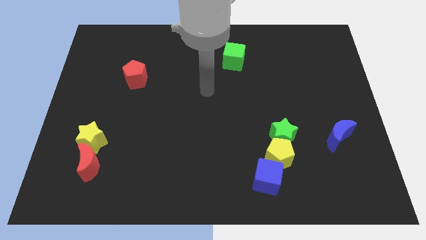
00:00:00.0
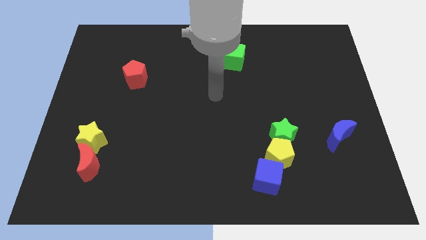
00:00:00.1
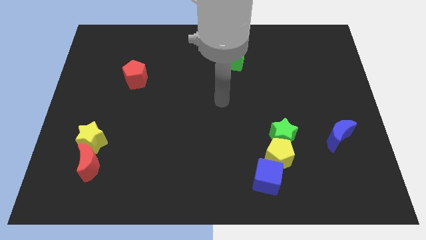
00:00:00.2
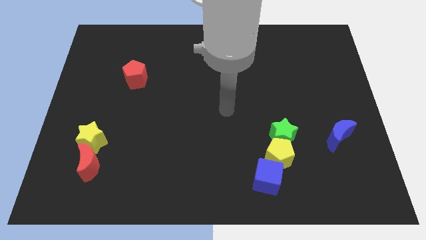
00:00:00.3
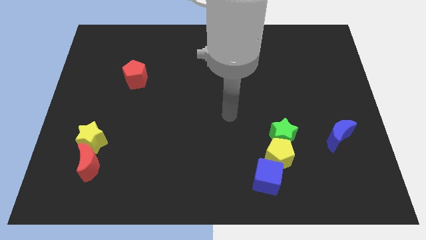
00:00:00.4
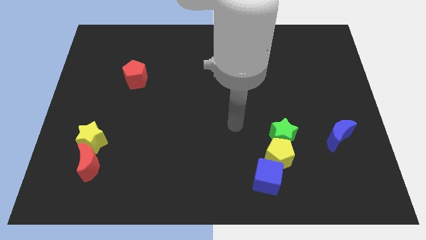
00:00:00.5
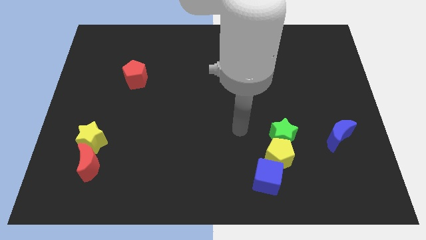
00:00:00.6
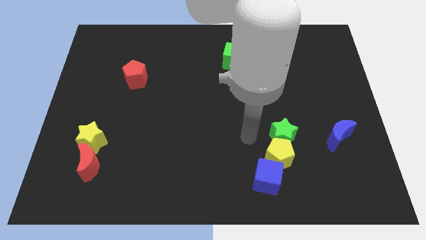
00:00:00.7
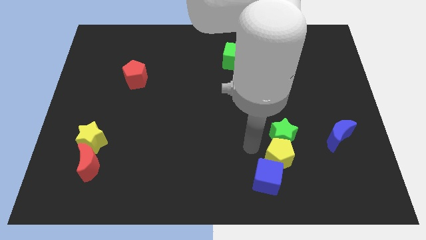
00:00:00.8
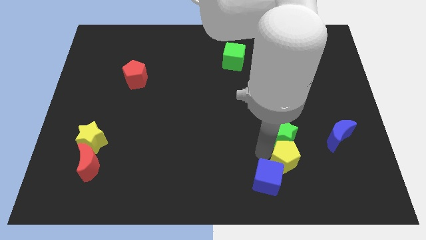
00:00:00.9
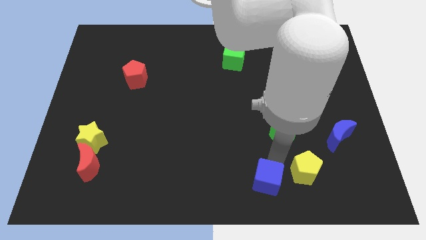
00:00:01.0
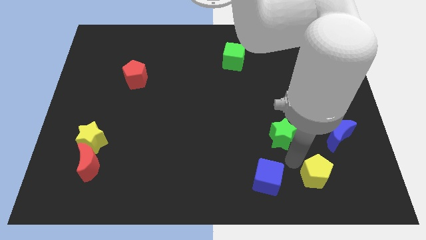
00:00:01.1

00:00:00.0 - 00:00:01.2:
move the green star away from the yellow pentagon

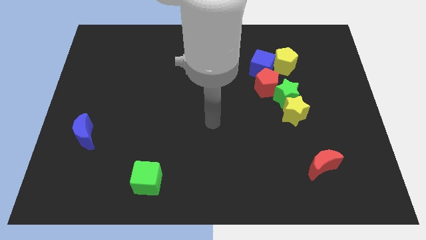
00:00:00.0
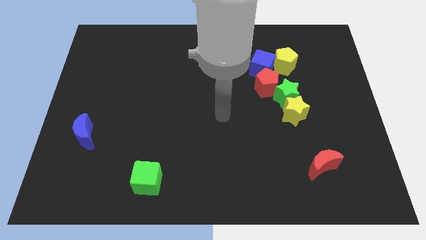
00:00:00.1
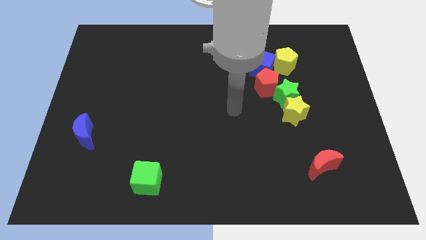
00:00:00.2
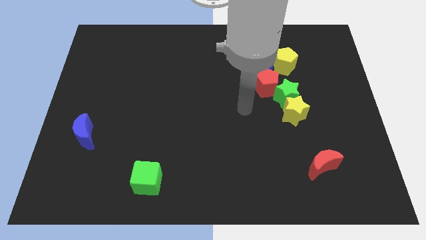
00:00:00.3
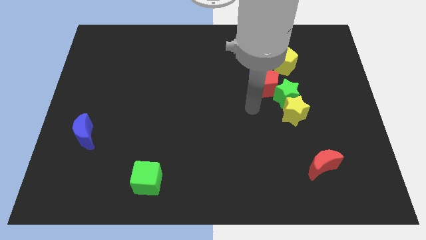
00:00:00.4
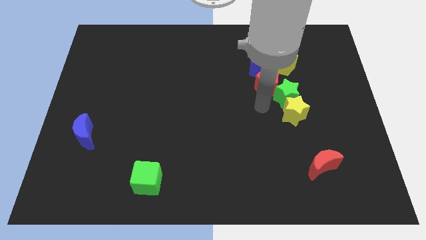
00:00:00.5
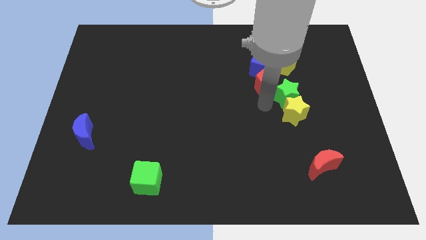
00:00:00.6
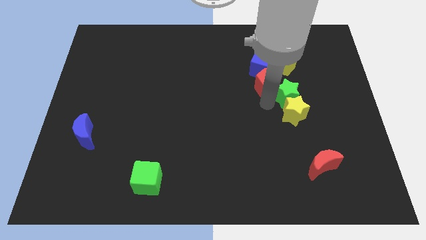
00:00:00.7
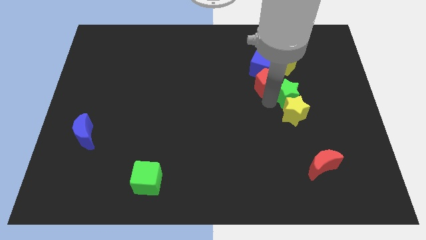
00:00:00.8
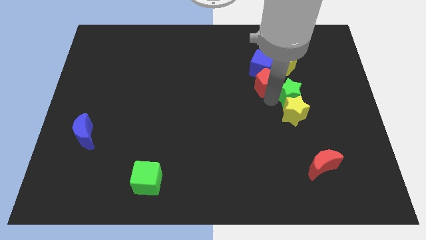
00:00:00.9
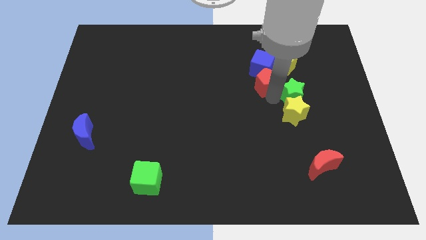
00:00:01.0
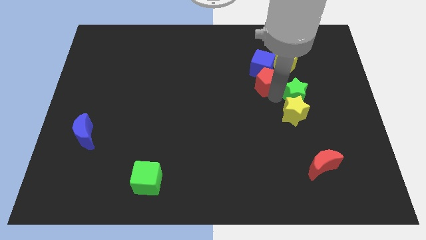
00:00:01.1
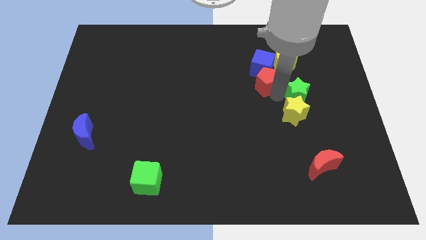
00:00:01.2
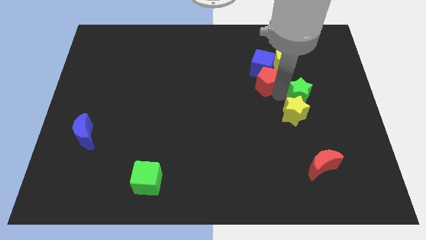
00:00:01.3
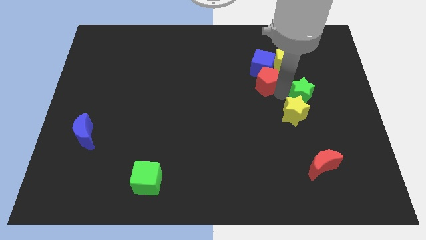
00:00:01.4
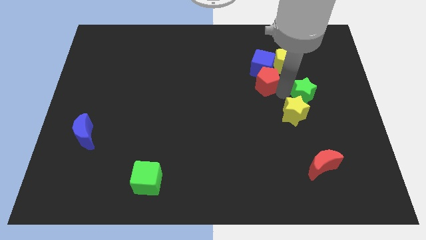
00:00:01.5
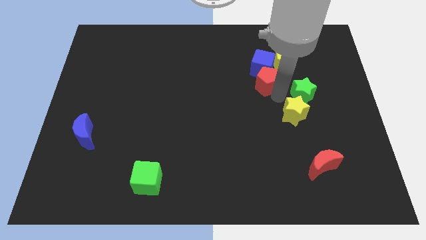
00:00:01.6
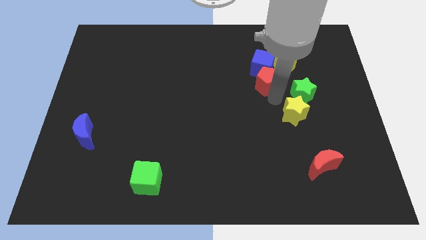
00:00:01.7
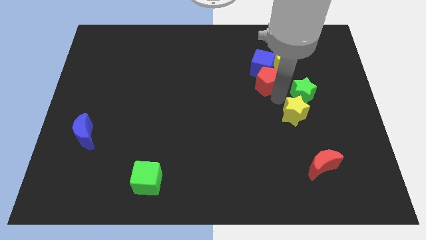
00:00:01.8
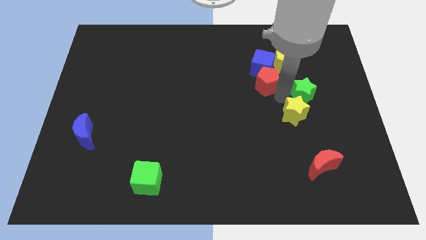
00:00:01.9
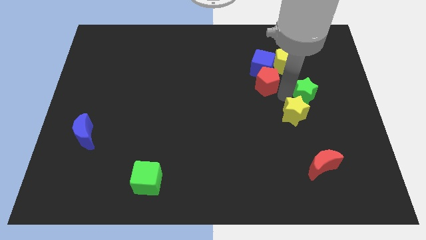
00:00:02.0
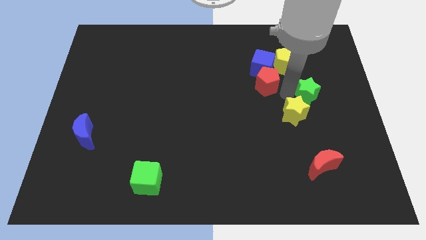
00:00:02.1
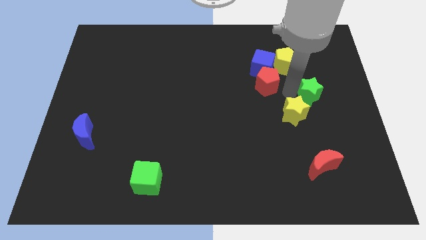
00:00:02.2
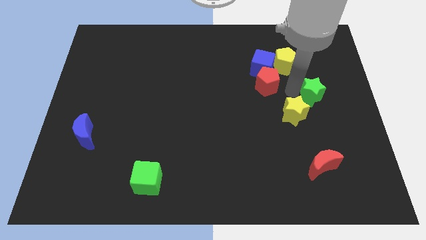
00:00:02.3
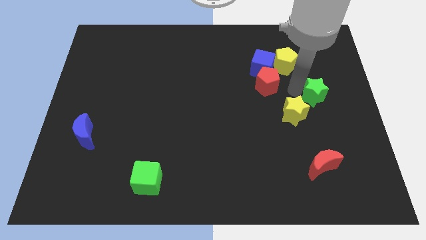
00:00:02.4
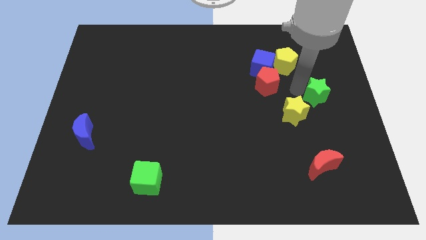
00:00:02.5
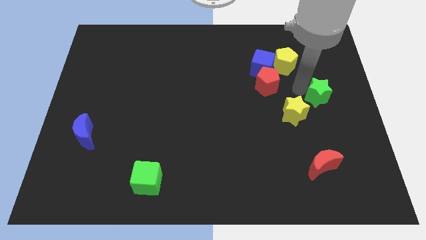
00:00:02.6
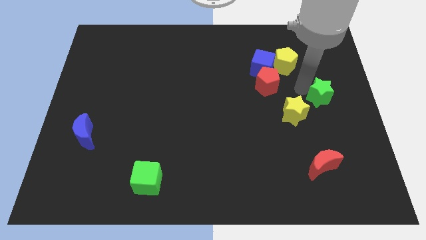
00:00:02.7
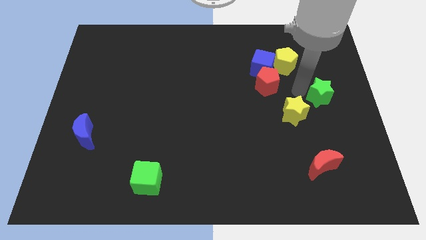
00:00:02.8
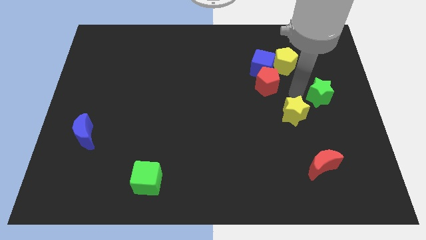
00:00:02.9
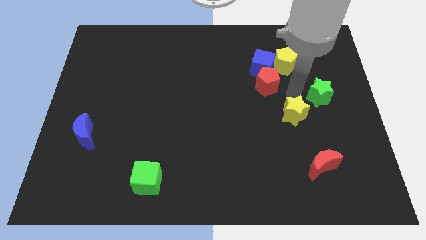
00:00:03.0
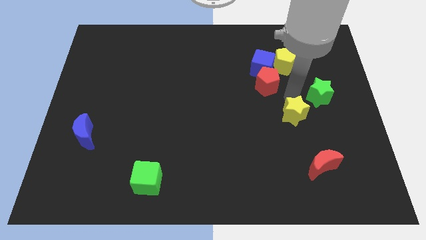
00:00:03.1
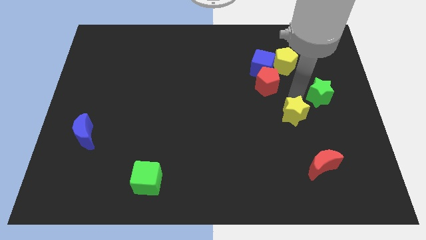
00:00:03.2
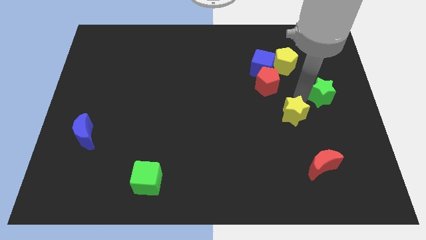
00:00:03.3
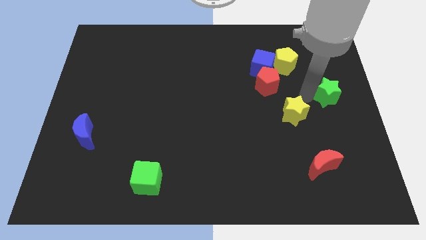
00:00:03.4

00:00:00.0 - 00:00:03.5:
pull the green star apart from the yellow star and red pentagon

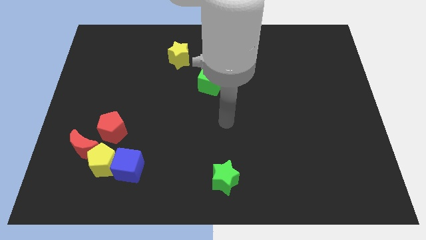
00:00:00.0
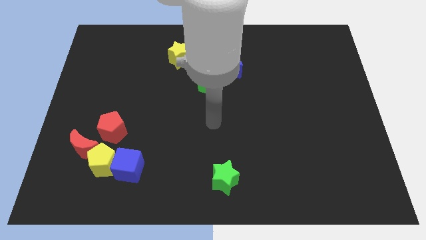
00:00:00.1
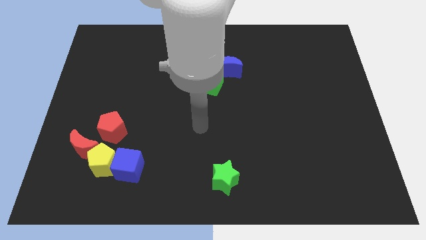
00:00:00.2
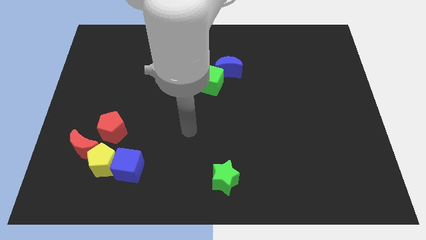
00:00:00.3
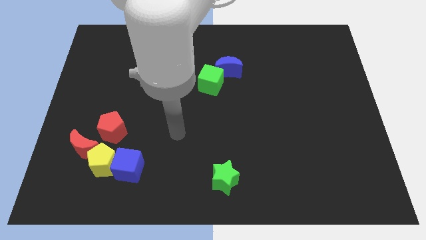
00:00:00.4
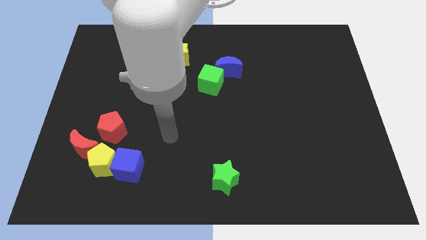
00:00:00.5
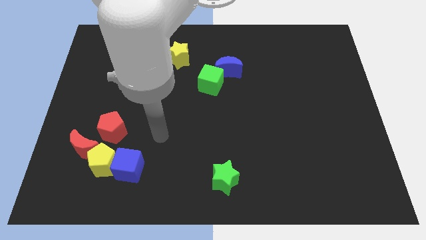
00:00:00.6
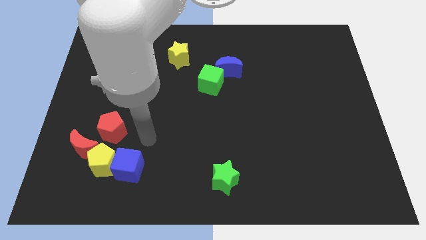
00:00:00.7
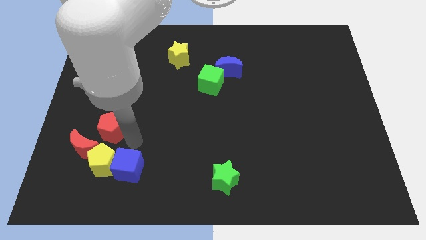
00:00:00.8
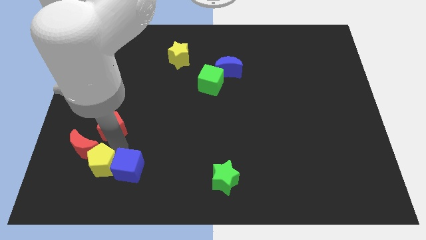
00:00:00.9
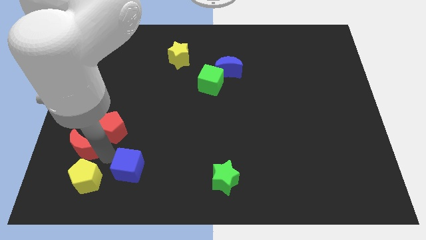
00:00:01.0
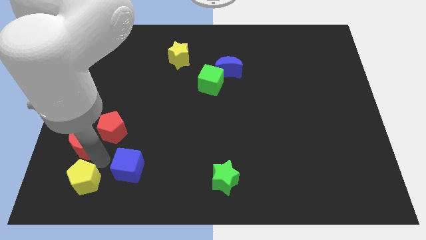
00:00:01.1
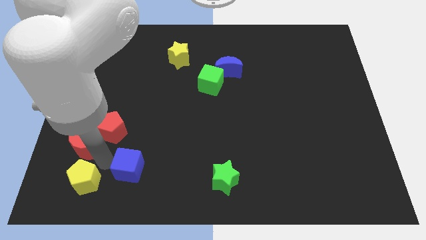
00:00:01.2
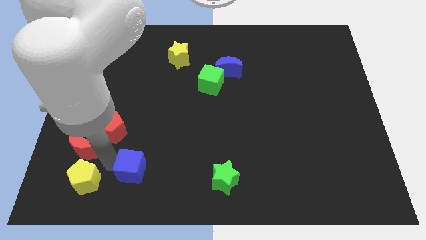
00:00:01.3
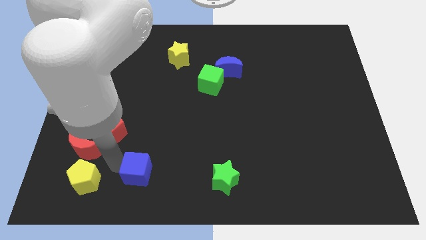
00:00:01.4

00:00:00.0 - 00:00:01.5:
move the blue cube away from the yellow pentagon

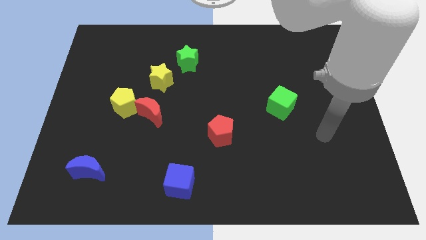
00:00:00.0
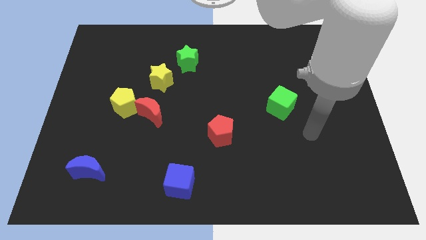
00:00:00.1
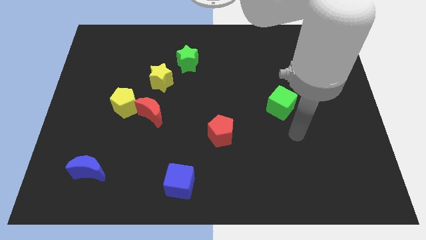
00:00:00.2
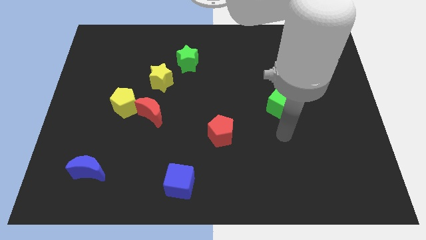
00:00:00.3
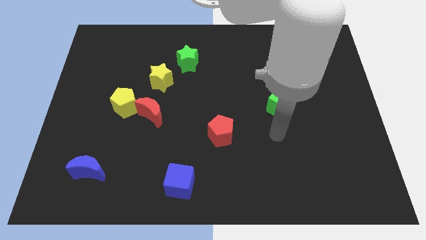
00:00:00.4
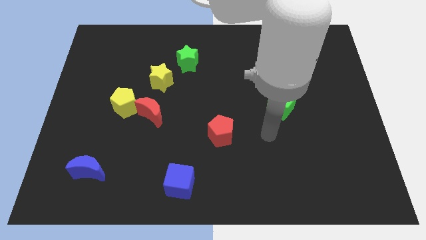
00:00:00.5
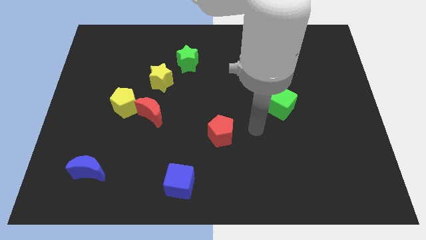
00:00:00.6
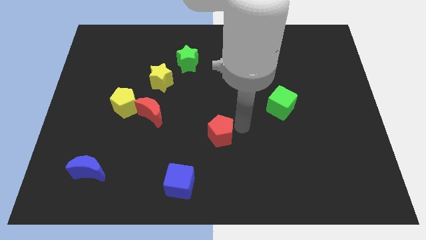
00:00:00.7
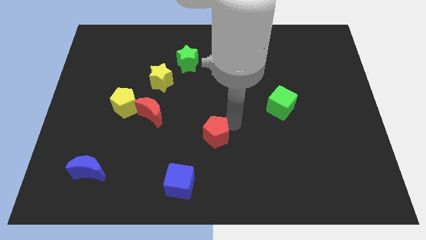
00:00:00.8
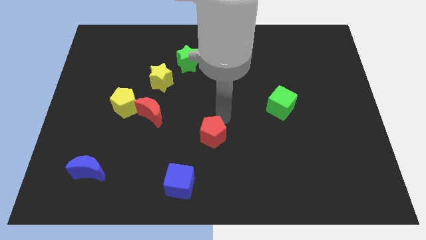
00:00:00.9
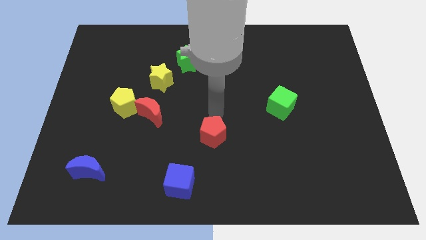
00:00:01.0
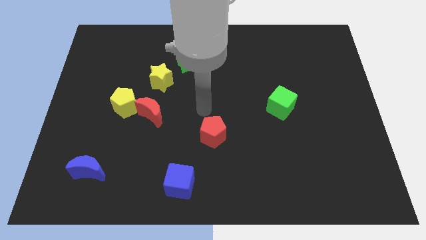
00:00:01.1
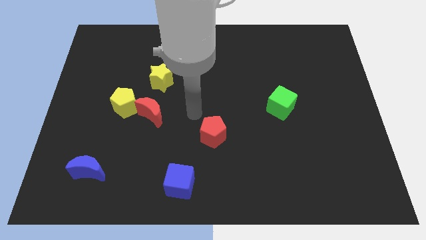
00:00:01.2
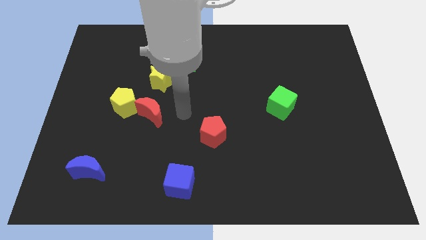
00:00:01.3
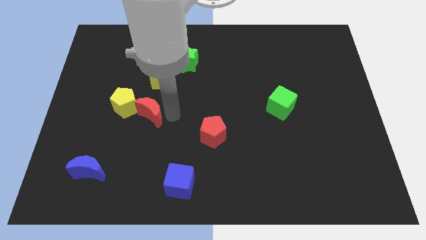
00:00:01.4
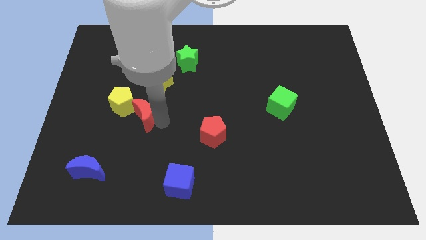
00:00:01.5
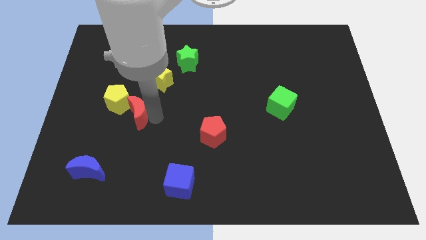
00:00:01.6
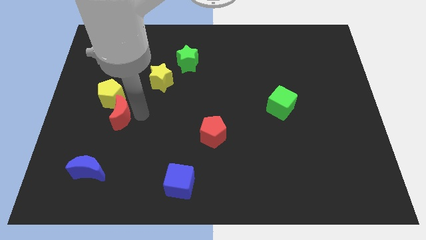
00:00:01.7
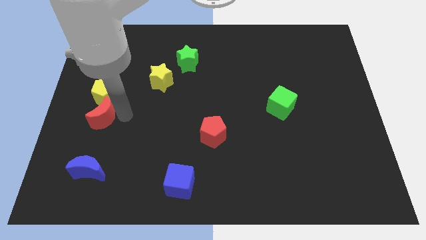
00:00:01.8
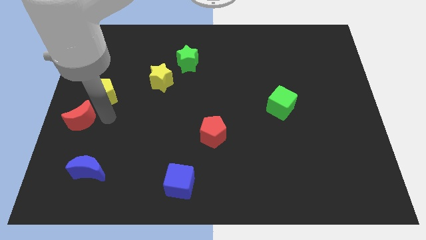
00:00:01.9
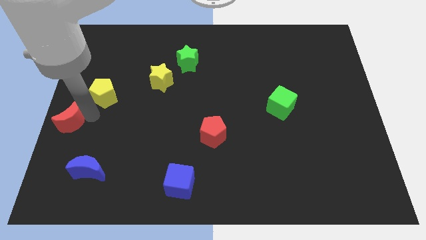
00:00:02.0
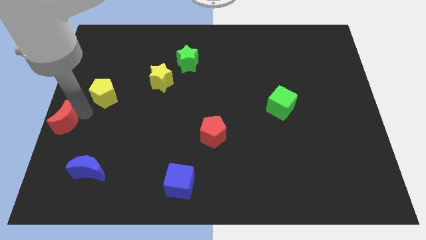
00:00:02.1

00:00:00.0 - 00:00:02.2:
move the yellow pentagon away from the red moon

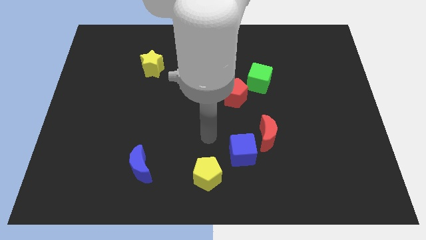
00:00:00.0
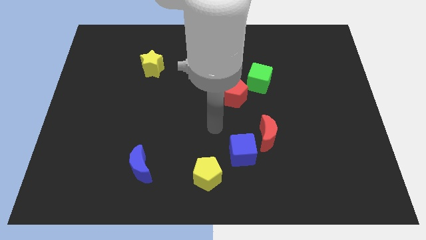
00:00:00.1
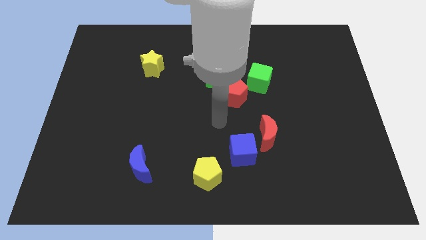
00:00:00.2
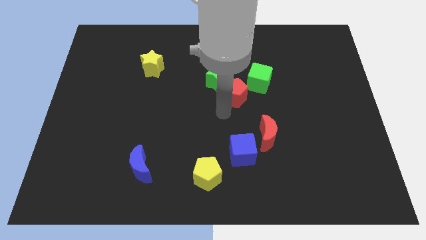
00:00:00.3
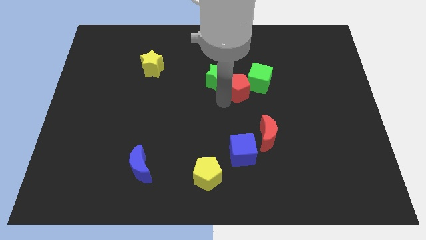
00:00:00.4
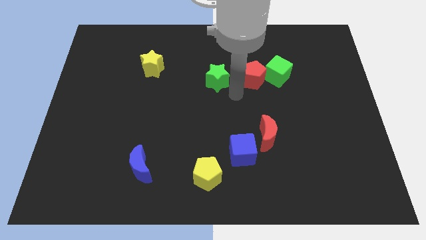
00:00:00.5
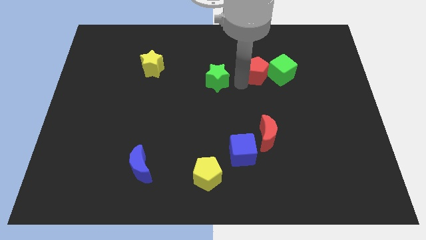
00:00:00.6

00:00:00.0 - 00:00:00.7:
pull the green star apart from the red pentagon

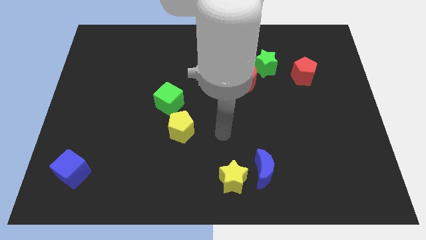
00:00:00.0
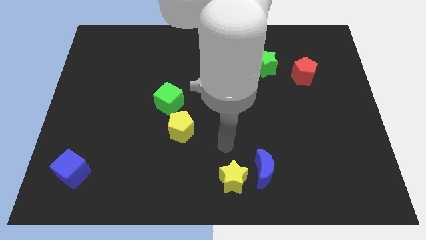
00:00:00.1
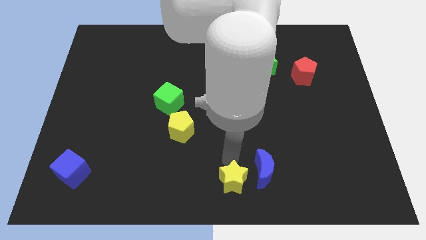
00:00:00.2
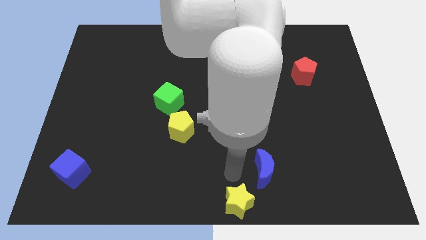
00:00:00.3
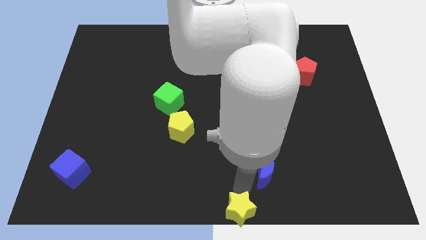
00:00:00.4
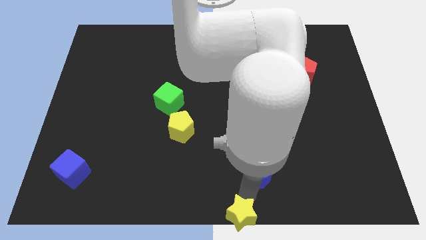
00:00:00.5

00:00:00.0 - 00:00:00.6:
separate the blue moon from the yellow star
